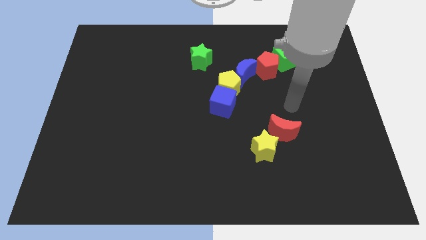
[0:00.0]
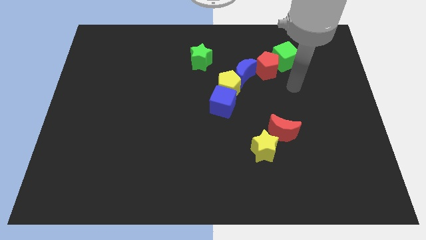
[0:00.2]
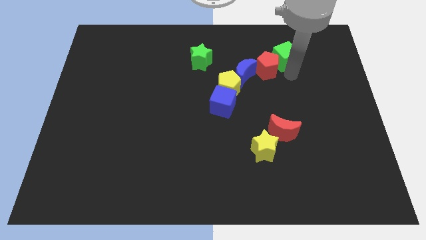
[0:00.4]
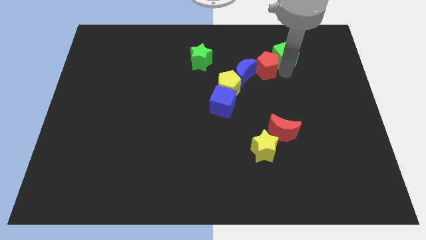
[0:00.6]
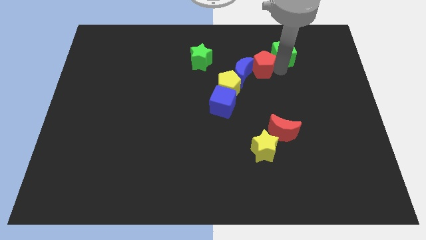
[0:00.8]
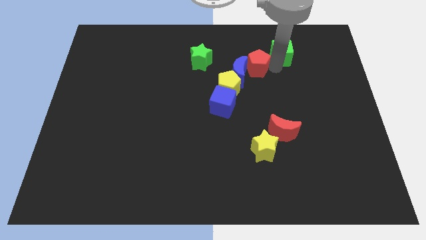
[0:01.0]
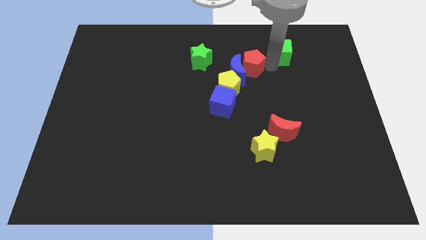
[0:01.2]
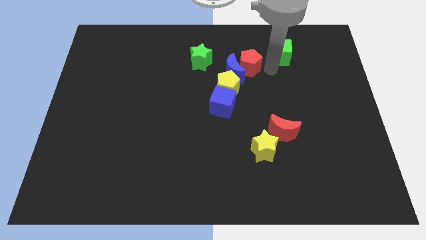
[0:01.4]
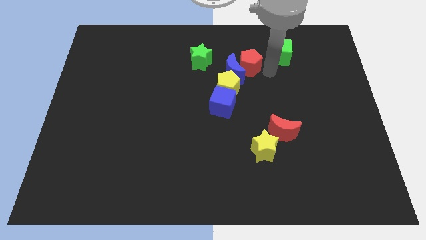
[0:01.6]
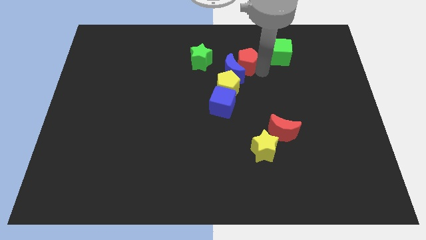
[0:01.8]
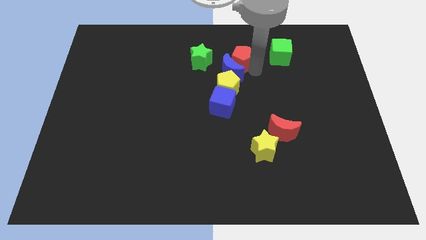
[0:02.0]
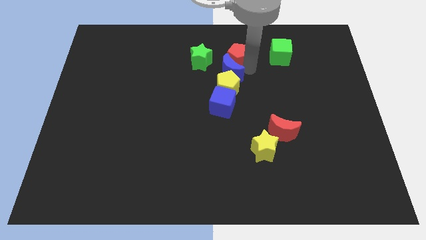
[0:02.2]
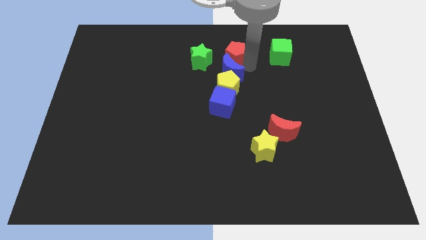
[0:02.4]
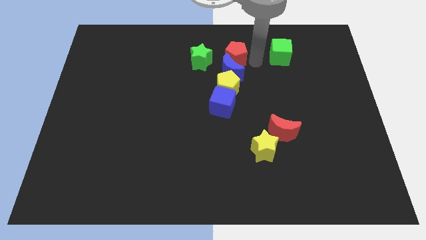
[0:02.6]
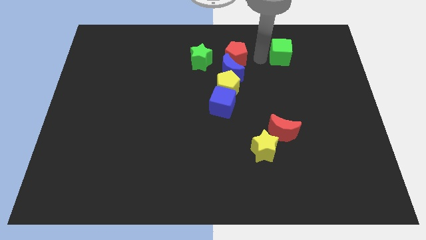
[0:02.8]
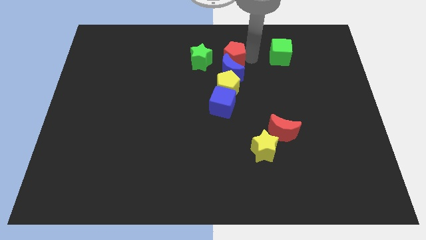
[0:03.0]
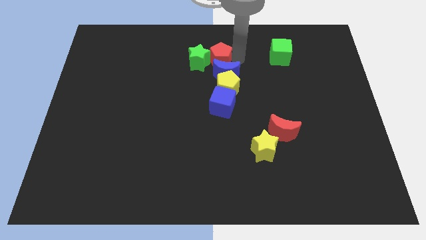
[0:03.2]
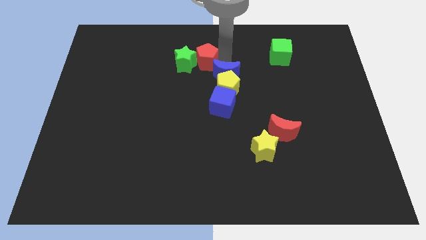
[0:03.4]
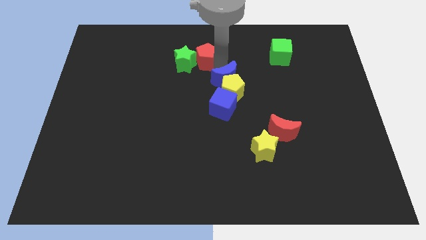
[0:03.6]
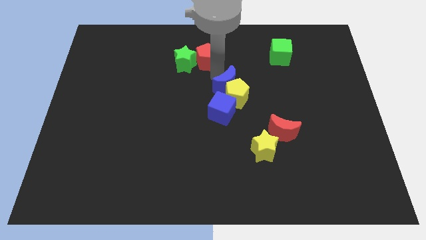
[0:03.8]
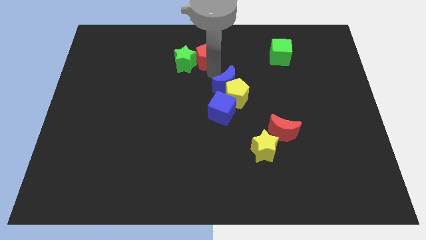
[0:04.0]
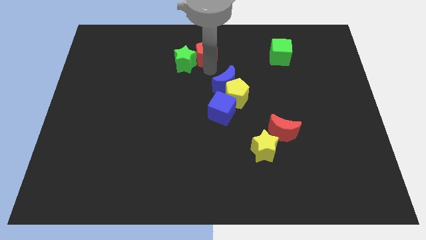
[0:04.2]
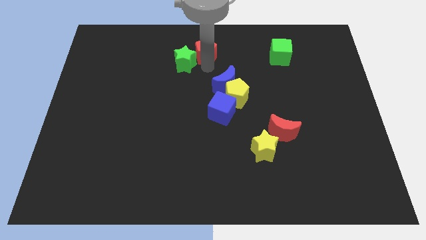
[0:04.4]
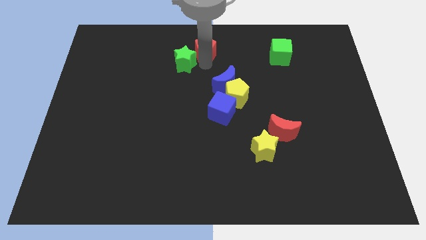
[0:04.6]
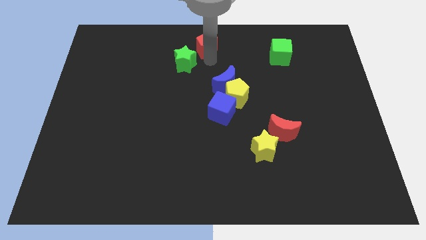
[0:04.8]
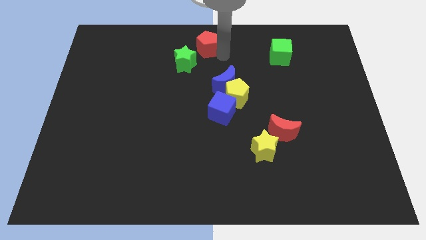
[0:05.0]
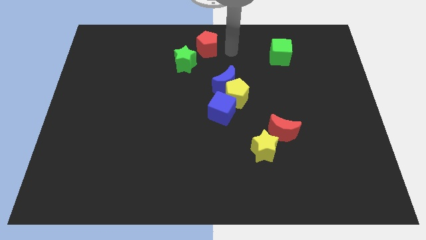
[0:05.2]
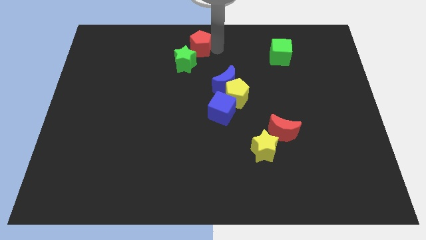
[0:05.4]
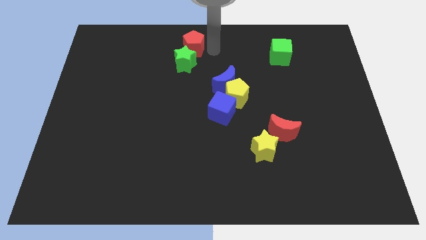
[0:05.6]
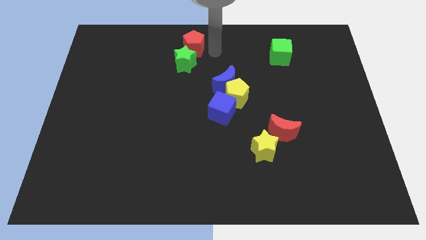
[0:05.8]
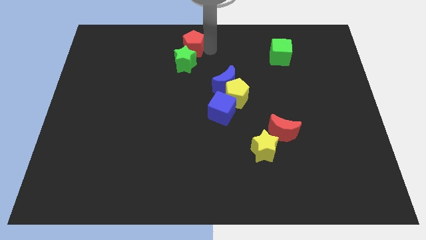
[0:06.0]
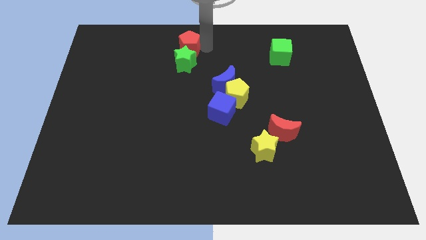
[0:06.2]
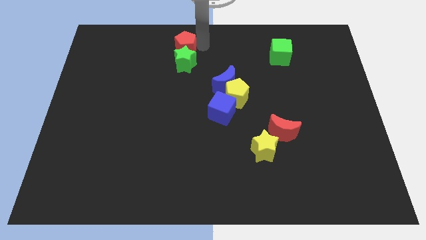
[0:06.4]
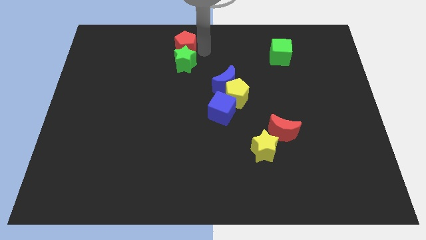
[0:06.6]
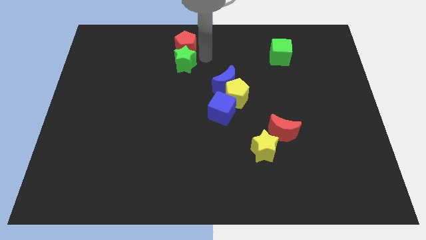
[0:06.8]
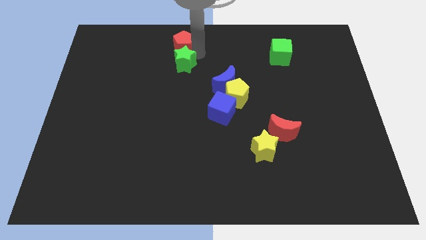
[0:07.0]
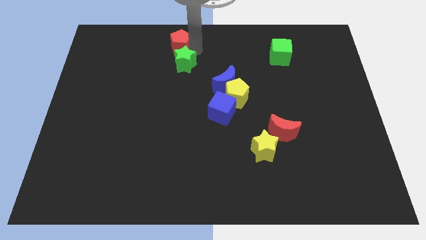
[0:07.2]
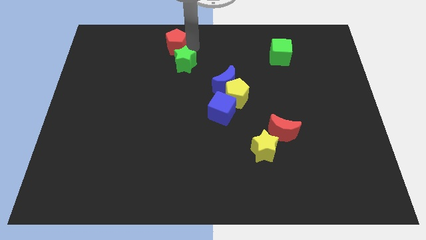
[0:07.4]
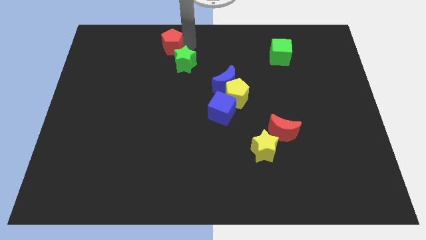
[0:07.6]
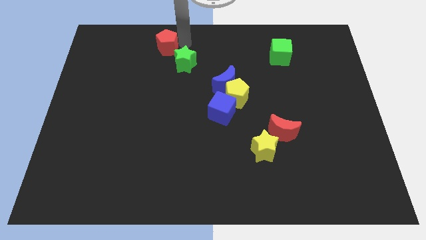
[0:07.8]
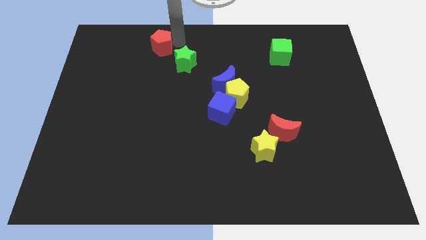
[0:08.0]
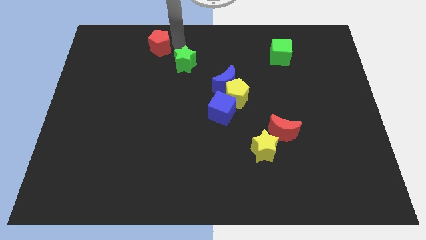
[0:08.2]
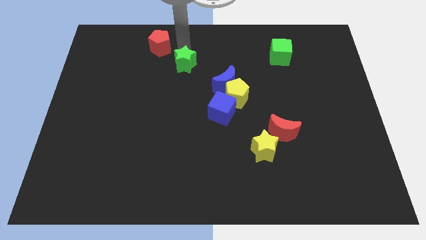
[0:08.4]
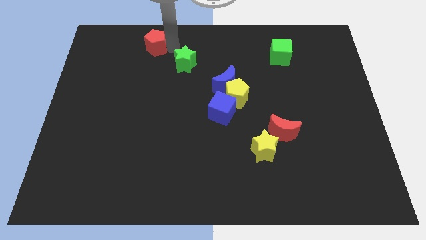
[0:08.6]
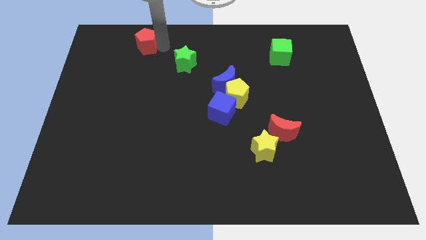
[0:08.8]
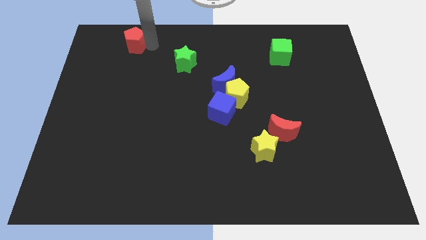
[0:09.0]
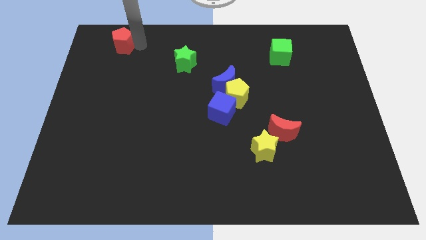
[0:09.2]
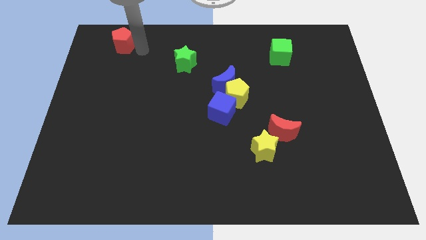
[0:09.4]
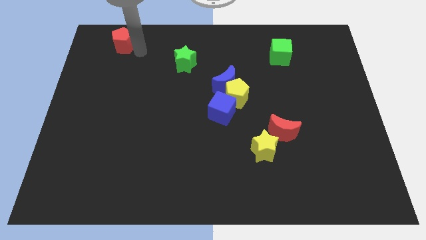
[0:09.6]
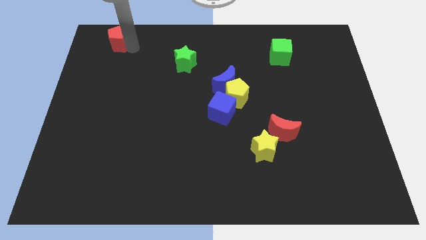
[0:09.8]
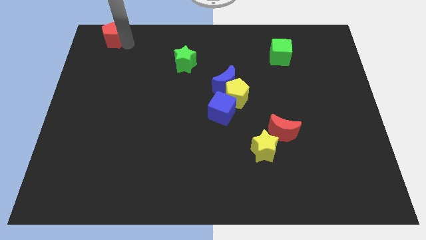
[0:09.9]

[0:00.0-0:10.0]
push the red pentagon to the top left

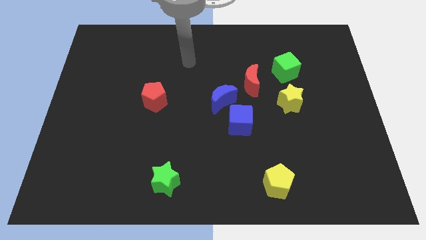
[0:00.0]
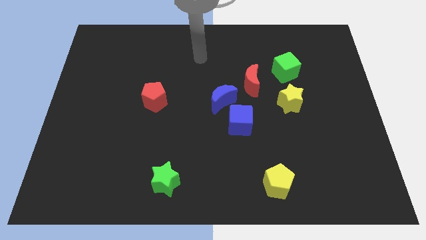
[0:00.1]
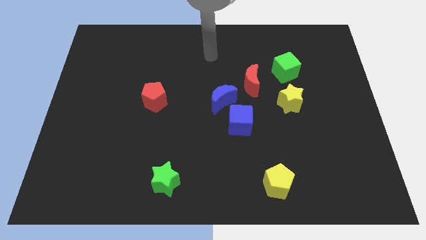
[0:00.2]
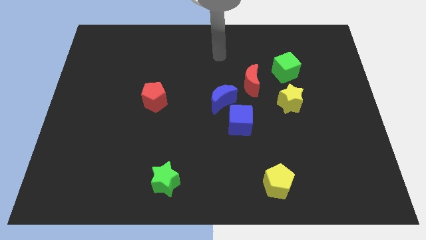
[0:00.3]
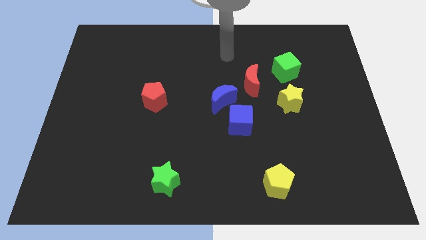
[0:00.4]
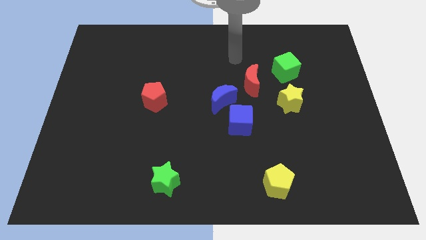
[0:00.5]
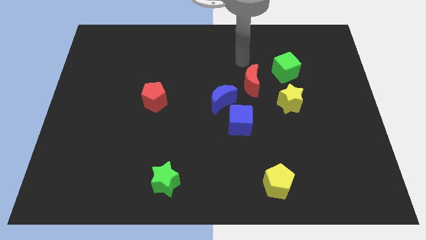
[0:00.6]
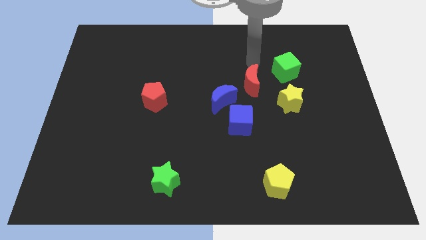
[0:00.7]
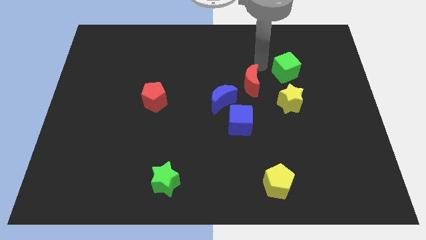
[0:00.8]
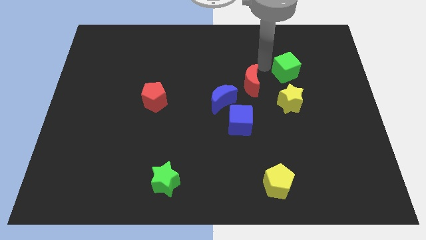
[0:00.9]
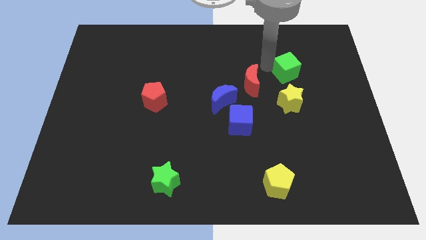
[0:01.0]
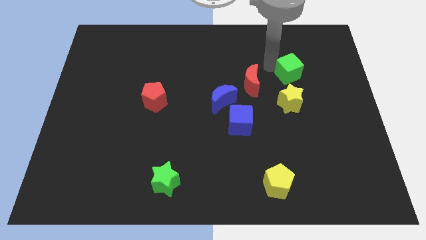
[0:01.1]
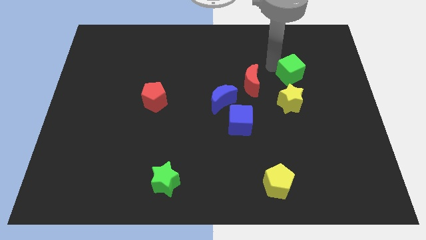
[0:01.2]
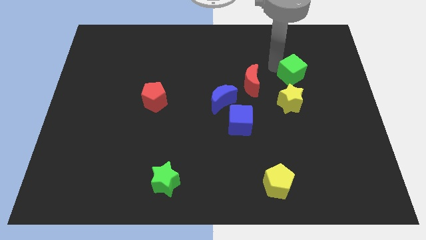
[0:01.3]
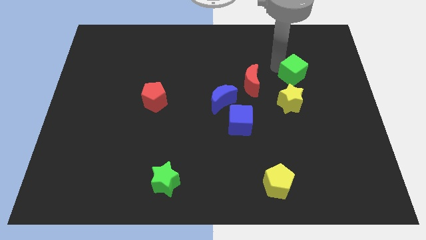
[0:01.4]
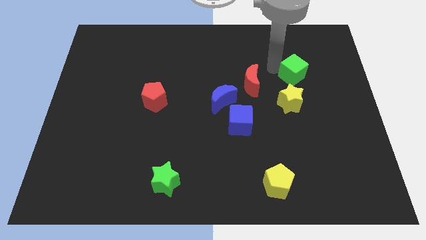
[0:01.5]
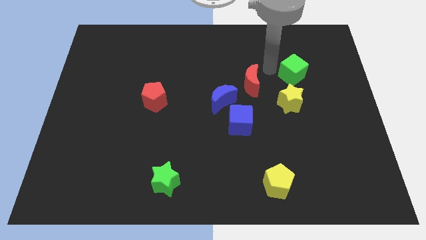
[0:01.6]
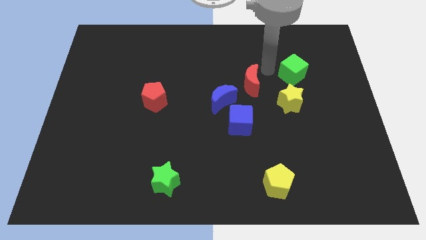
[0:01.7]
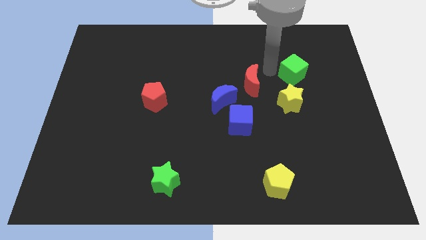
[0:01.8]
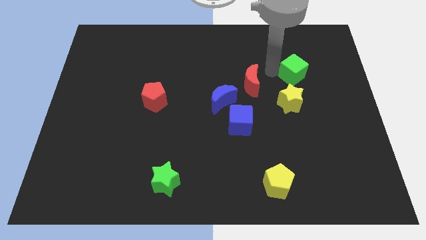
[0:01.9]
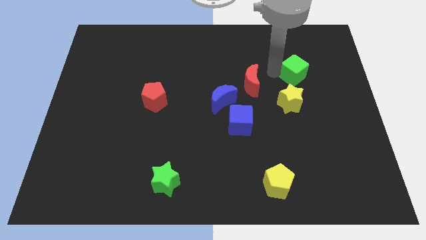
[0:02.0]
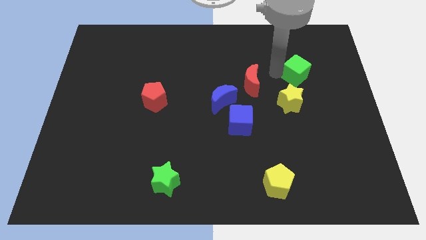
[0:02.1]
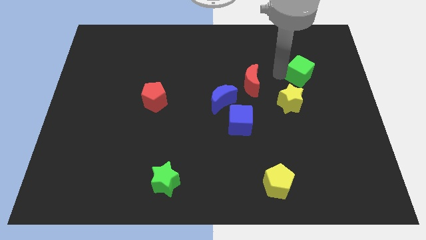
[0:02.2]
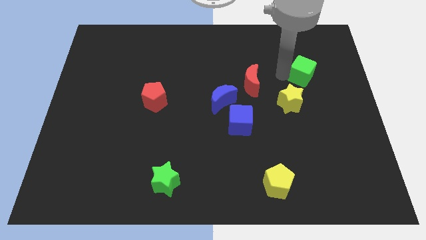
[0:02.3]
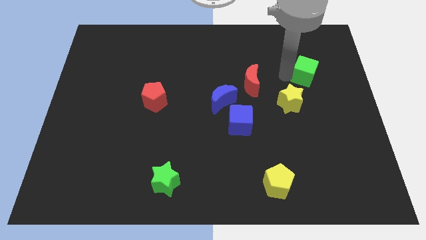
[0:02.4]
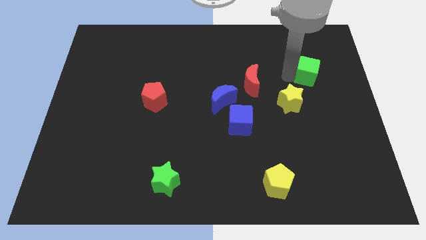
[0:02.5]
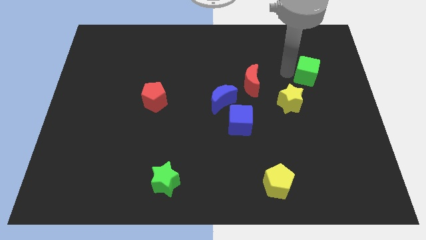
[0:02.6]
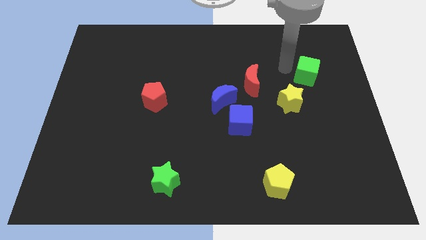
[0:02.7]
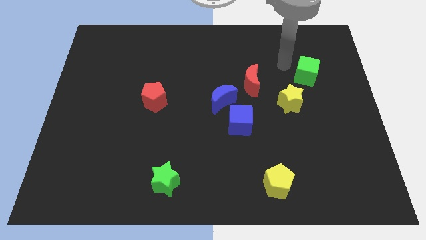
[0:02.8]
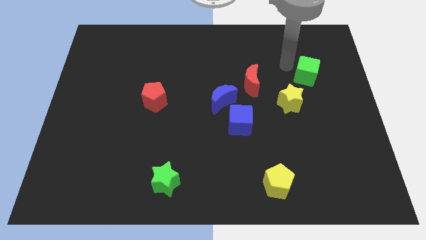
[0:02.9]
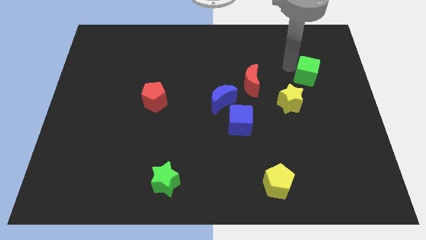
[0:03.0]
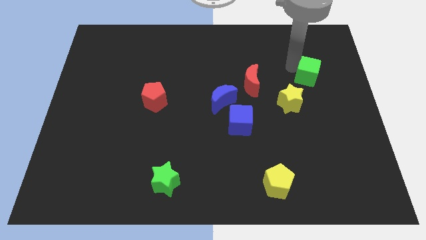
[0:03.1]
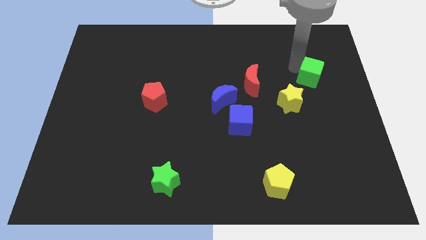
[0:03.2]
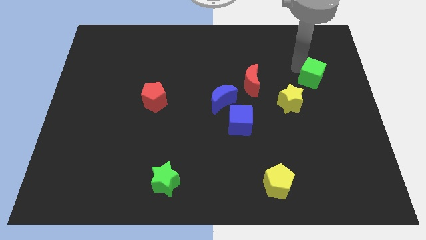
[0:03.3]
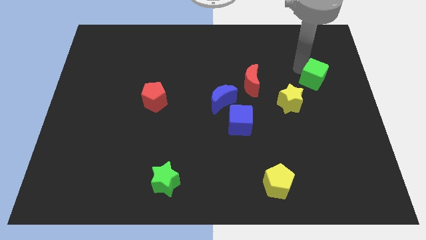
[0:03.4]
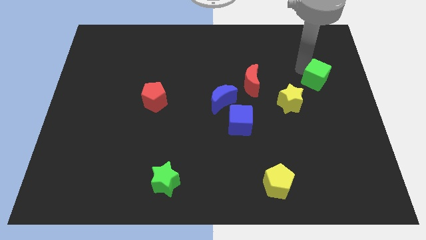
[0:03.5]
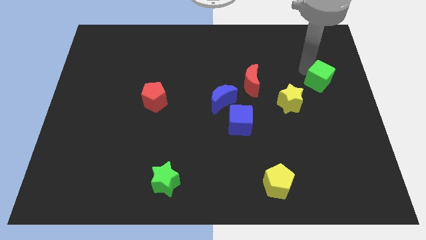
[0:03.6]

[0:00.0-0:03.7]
slide the green cube to the center right
